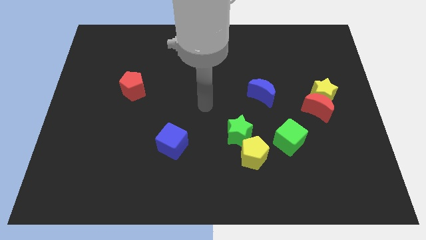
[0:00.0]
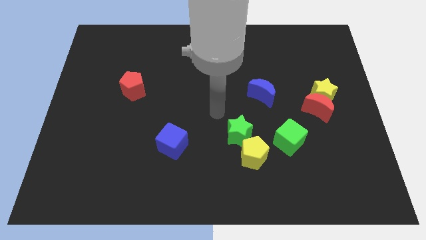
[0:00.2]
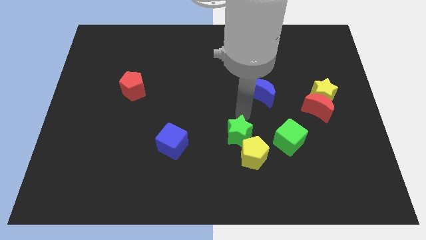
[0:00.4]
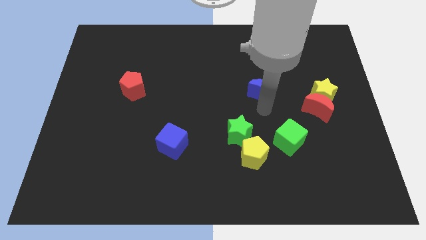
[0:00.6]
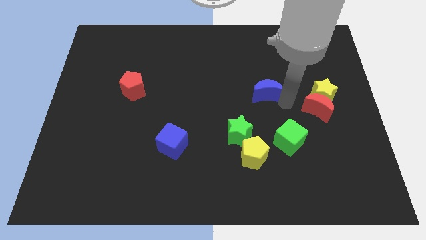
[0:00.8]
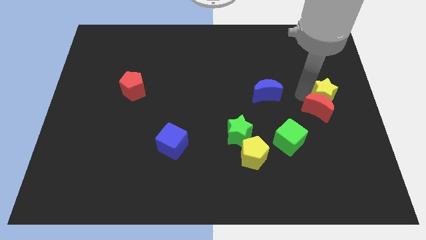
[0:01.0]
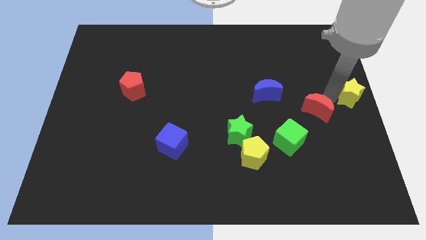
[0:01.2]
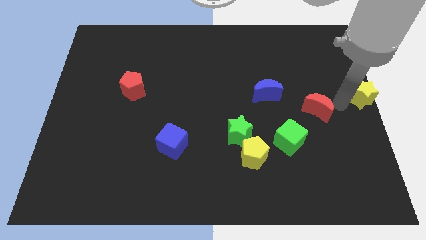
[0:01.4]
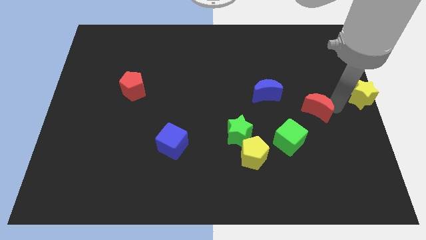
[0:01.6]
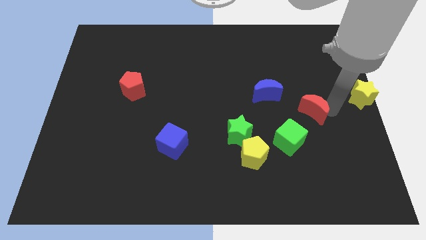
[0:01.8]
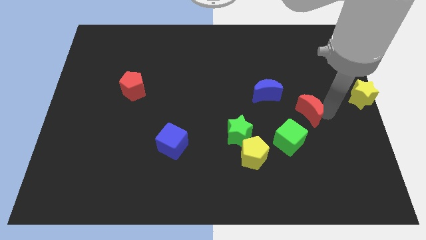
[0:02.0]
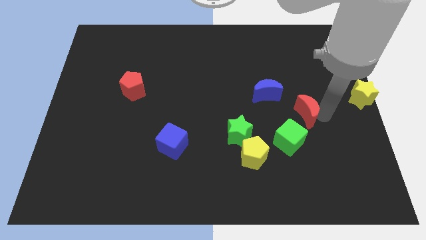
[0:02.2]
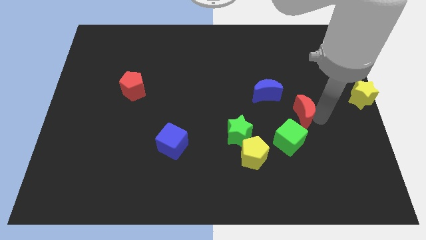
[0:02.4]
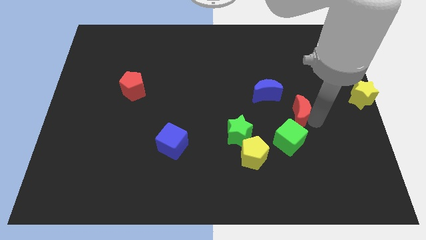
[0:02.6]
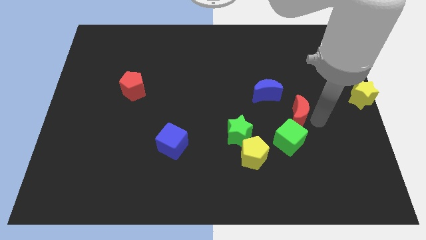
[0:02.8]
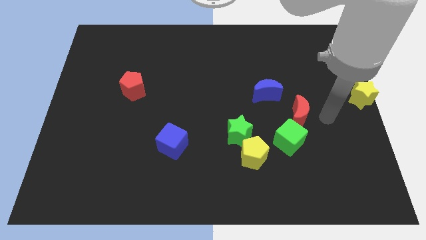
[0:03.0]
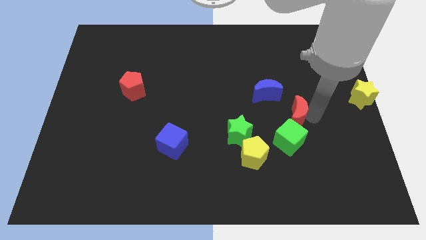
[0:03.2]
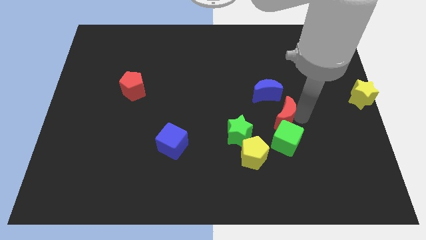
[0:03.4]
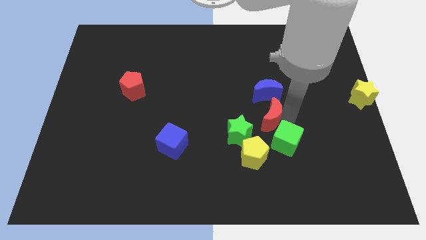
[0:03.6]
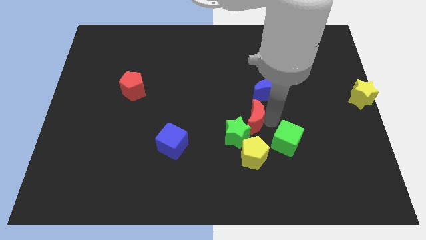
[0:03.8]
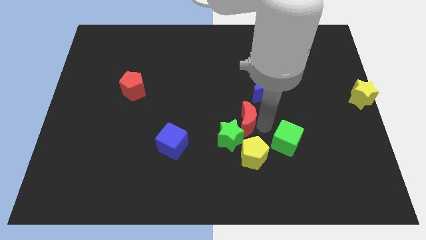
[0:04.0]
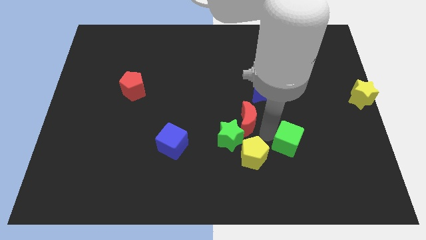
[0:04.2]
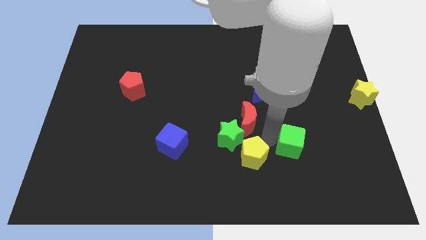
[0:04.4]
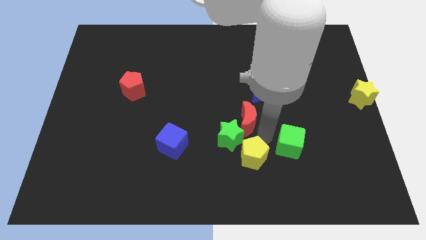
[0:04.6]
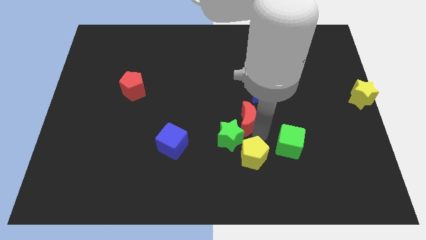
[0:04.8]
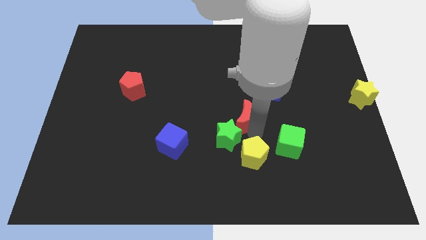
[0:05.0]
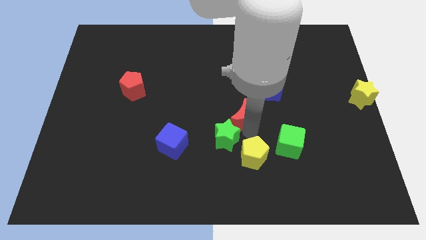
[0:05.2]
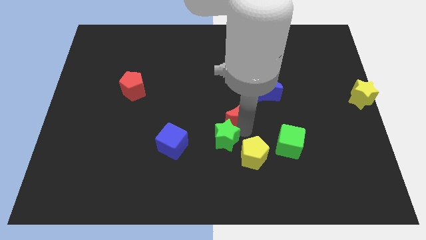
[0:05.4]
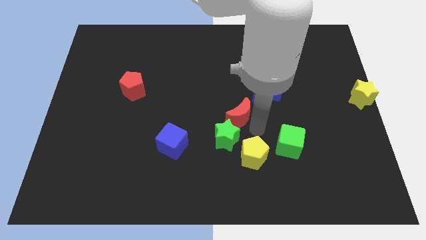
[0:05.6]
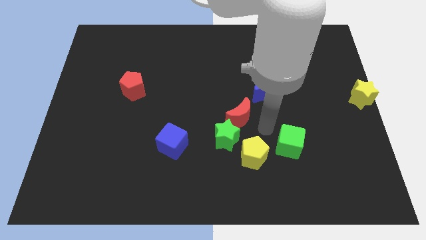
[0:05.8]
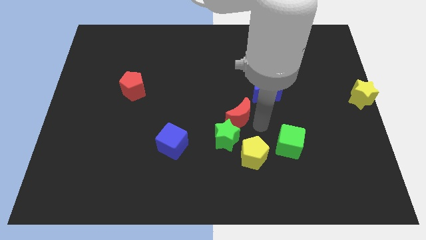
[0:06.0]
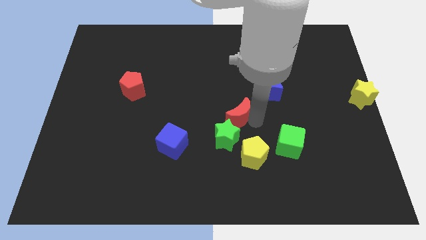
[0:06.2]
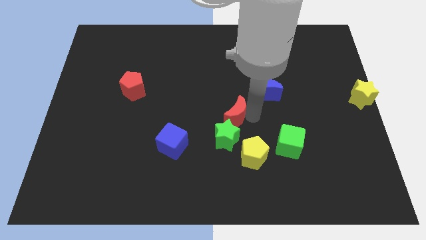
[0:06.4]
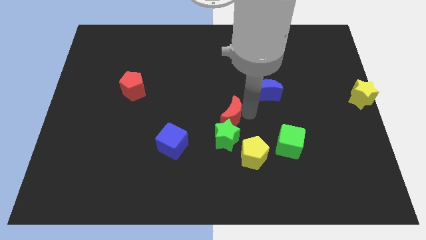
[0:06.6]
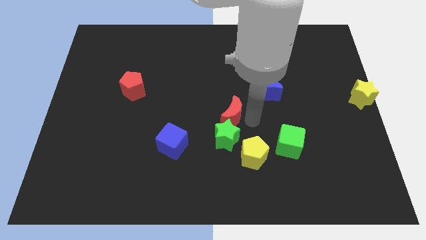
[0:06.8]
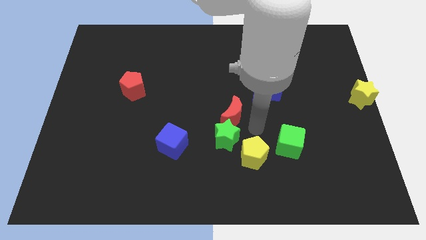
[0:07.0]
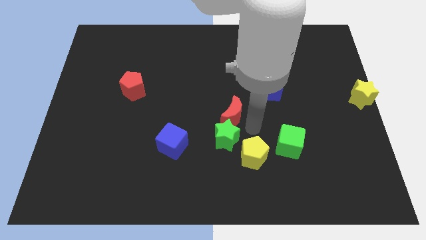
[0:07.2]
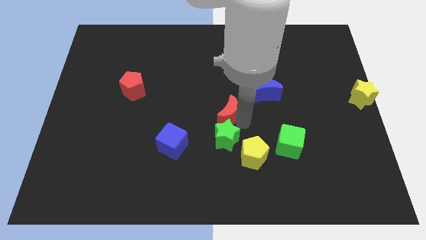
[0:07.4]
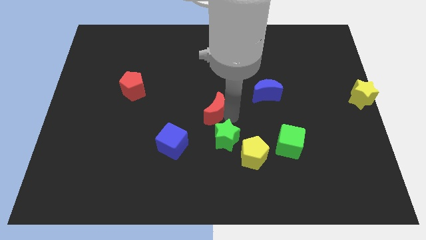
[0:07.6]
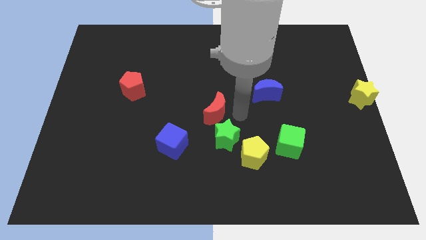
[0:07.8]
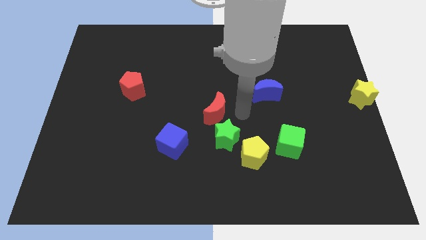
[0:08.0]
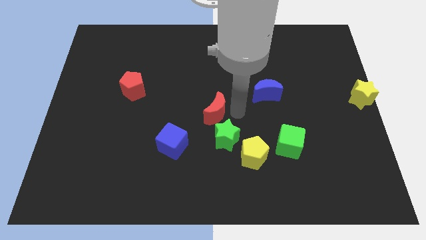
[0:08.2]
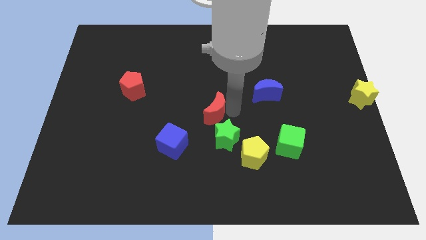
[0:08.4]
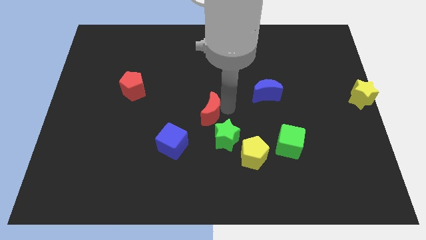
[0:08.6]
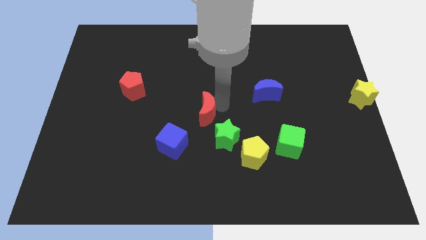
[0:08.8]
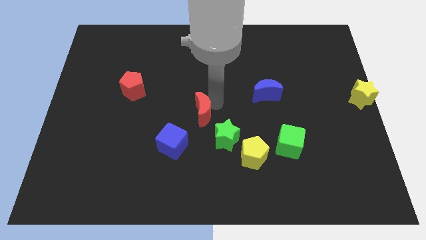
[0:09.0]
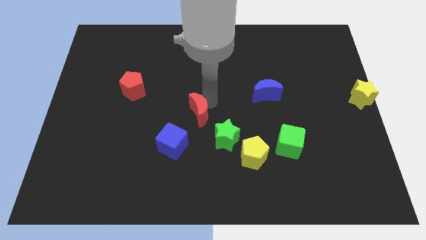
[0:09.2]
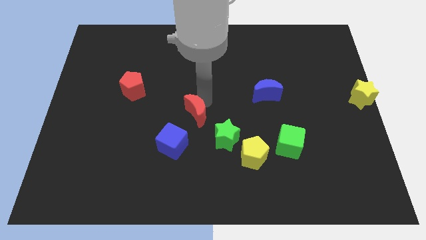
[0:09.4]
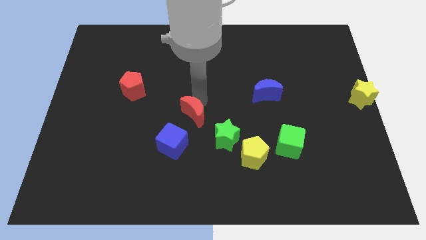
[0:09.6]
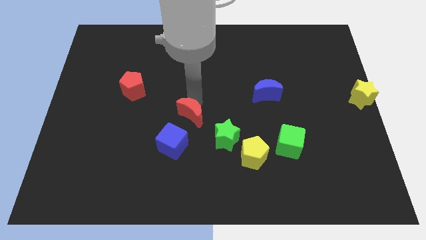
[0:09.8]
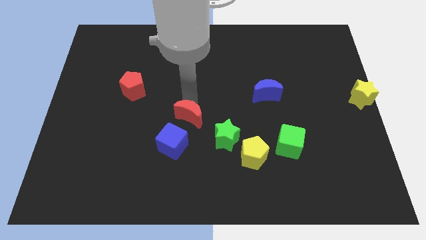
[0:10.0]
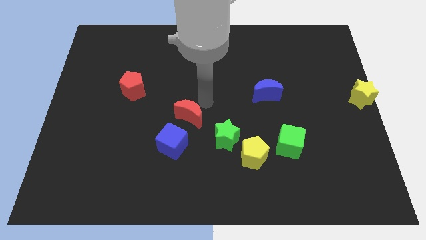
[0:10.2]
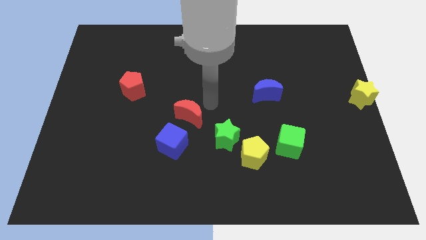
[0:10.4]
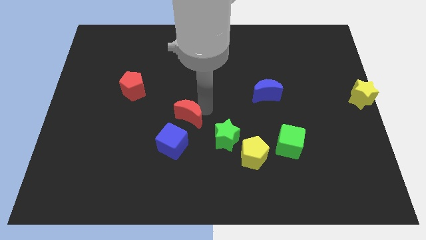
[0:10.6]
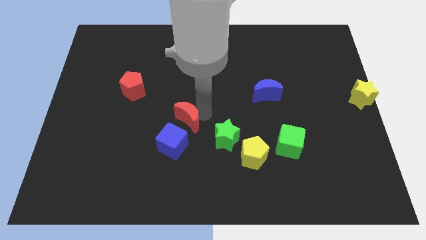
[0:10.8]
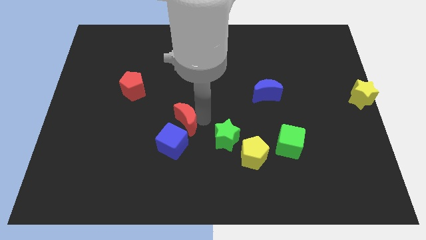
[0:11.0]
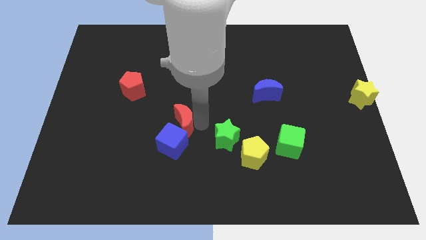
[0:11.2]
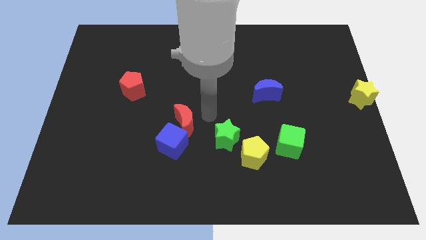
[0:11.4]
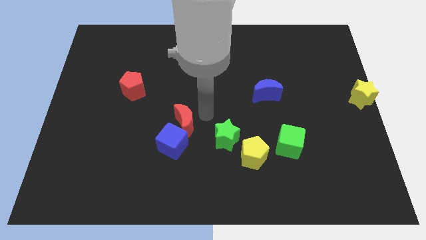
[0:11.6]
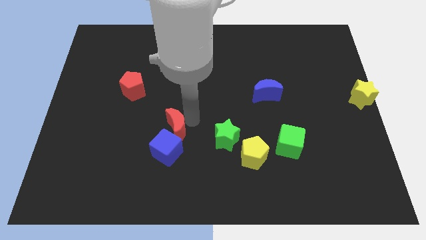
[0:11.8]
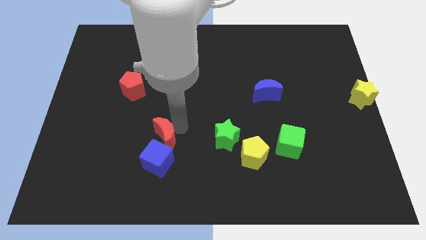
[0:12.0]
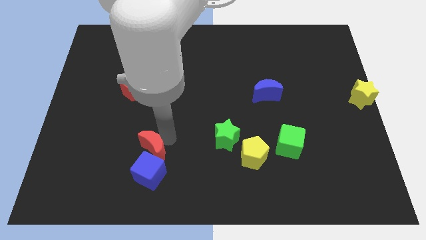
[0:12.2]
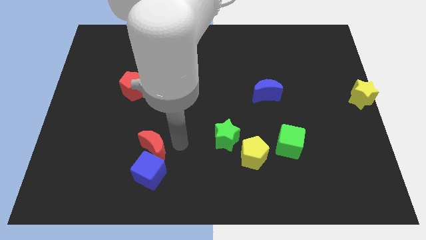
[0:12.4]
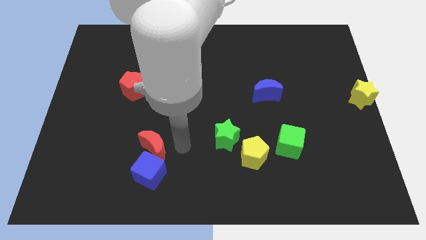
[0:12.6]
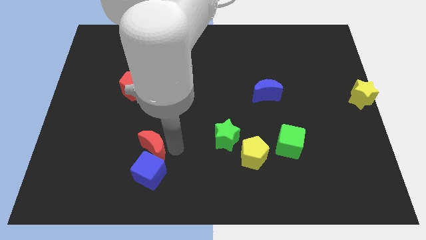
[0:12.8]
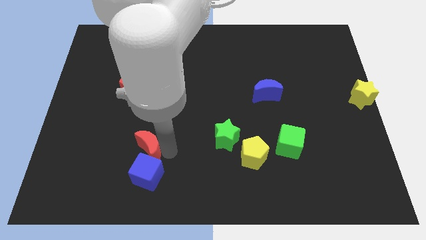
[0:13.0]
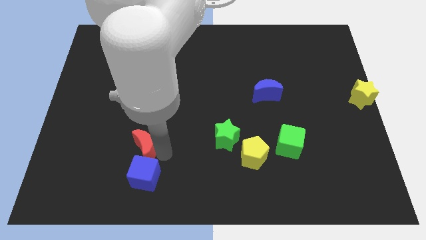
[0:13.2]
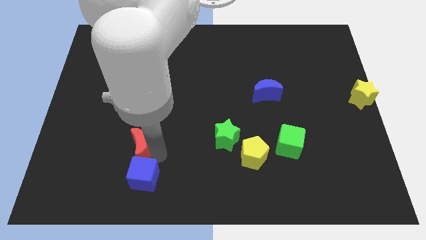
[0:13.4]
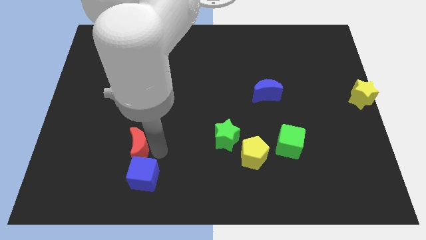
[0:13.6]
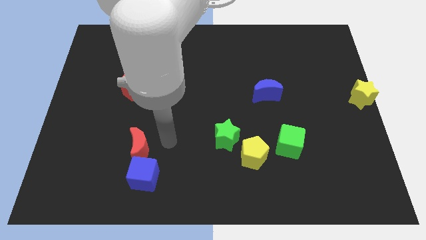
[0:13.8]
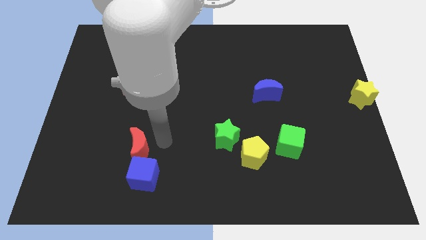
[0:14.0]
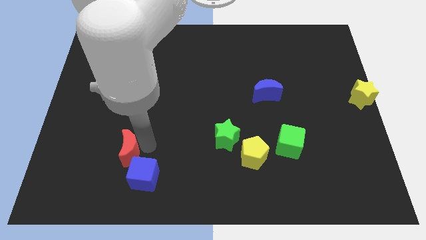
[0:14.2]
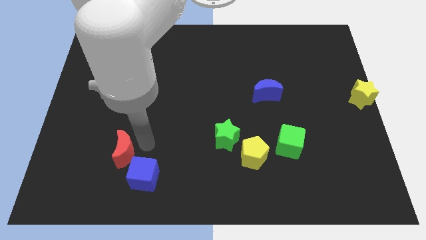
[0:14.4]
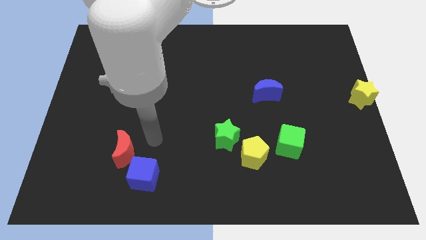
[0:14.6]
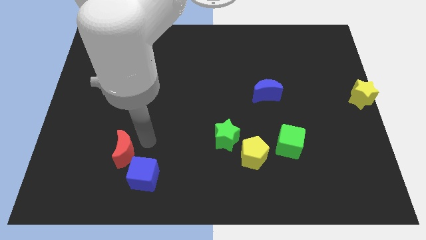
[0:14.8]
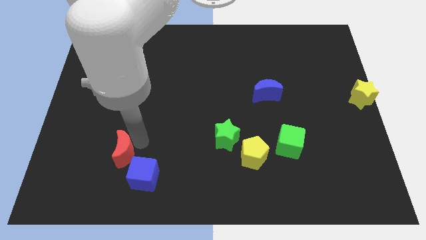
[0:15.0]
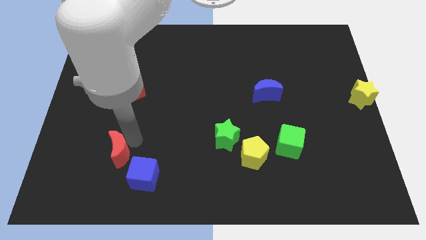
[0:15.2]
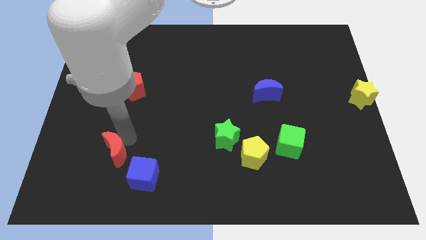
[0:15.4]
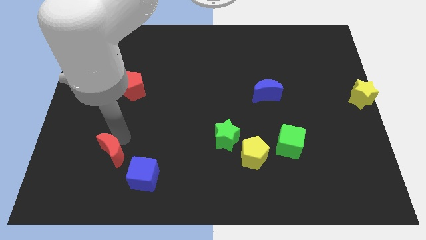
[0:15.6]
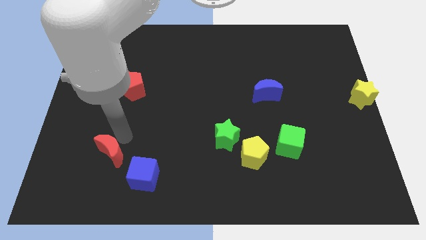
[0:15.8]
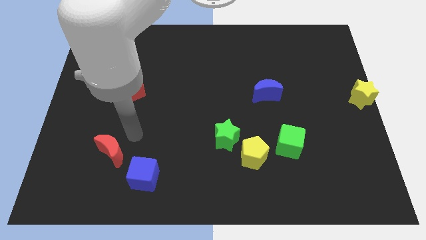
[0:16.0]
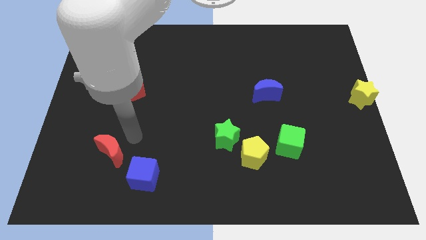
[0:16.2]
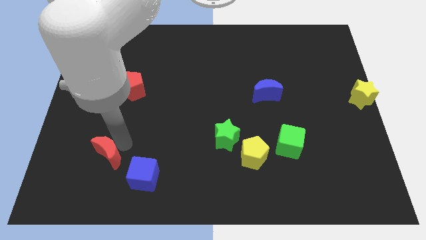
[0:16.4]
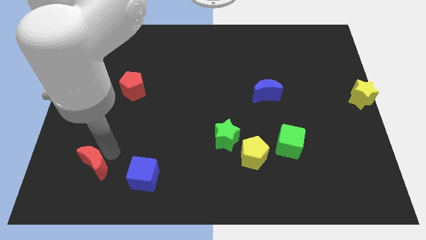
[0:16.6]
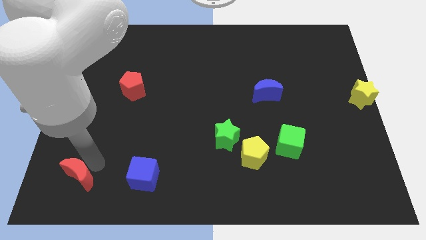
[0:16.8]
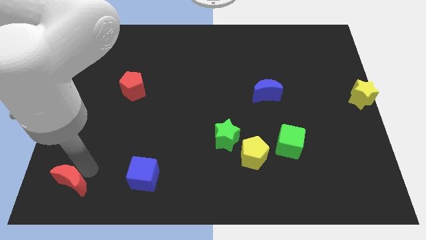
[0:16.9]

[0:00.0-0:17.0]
slide the red moon to the lower left corner
